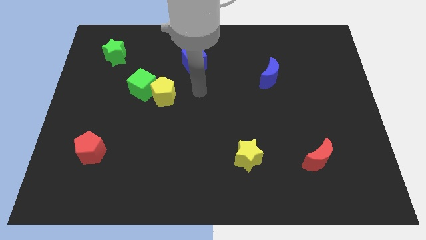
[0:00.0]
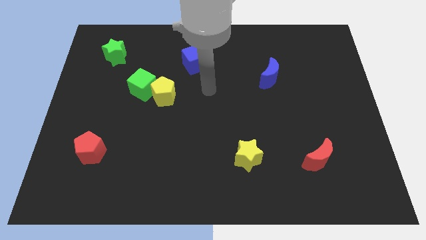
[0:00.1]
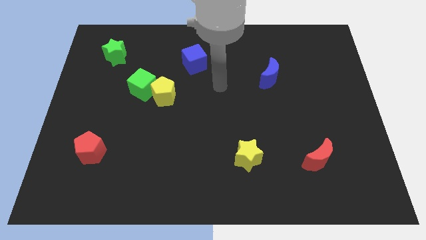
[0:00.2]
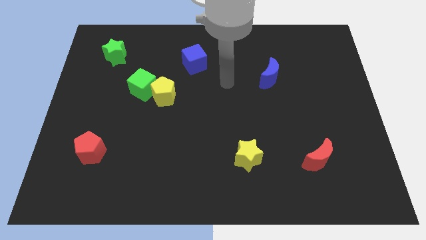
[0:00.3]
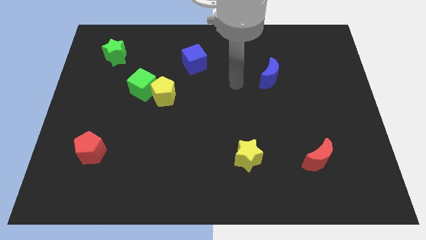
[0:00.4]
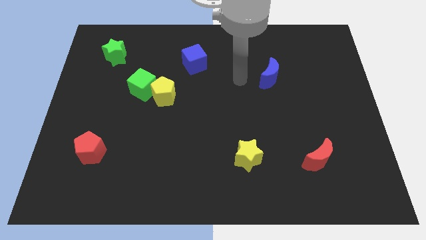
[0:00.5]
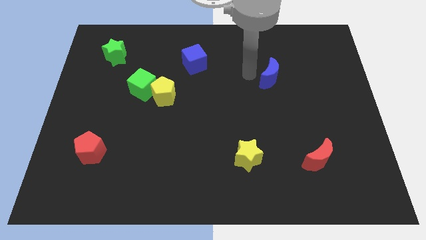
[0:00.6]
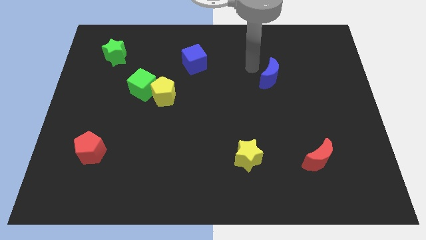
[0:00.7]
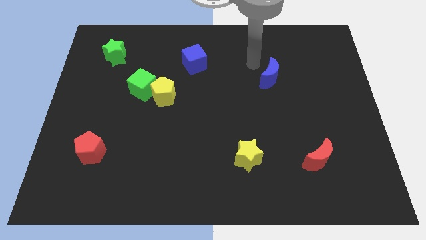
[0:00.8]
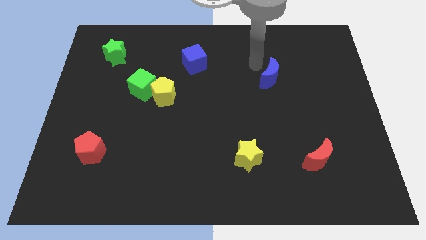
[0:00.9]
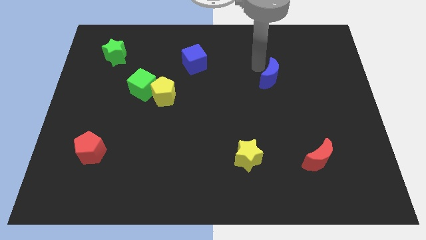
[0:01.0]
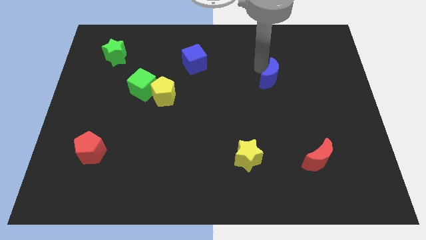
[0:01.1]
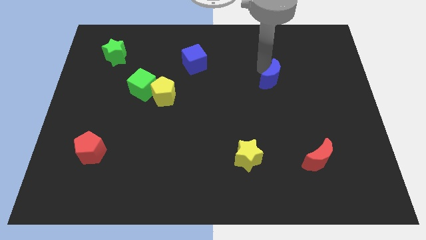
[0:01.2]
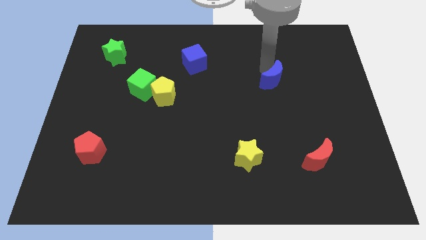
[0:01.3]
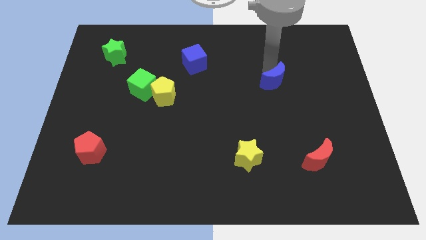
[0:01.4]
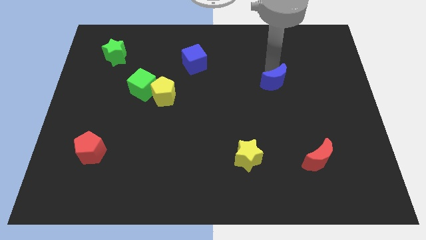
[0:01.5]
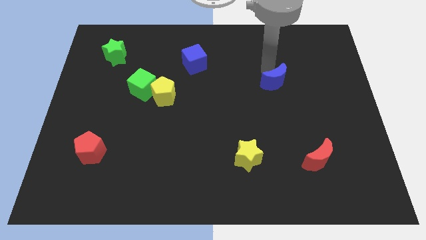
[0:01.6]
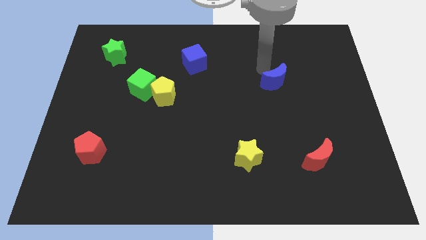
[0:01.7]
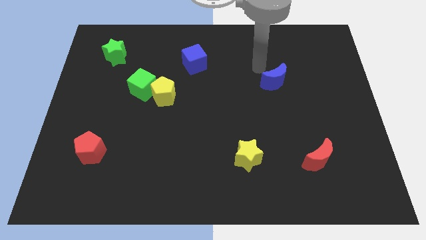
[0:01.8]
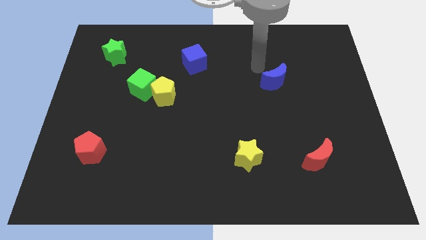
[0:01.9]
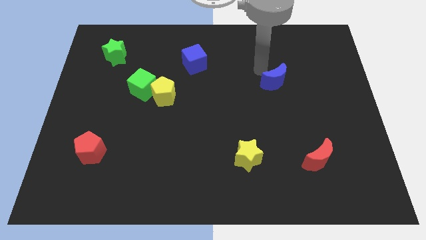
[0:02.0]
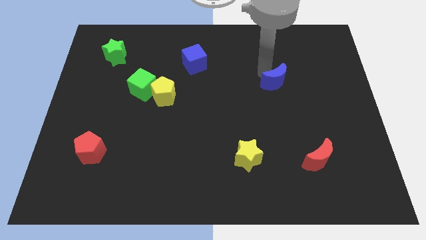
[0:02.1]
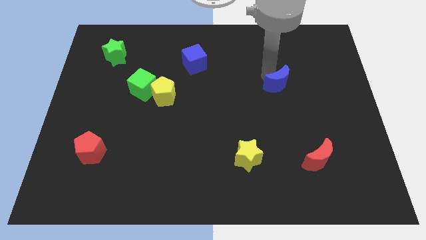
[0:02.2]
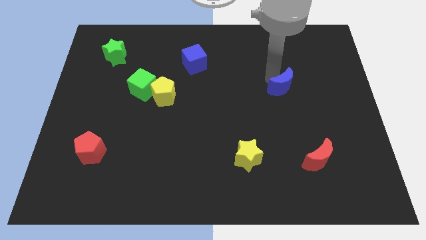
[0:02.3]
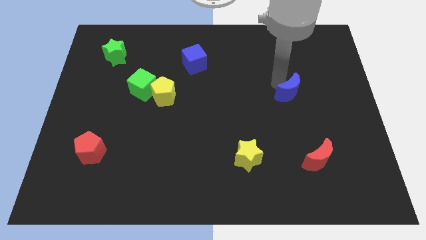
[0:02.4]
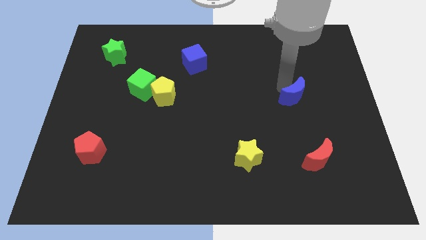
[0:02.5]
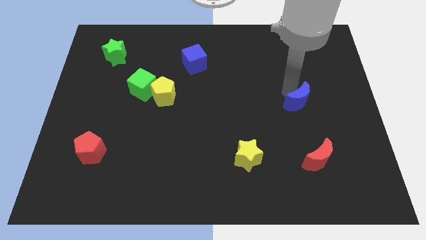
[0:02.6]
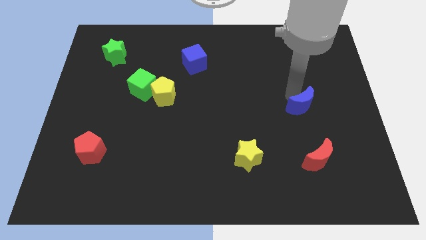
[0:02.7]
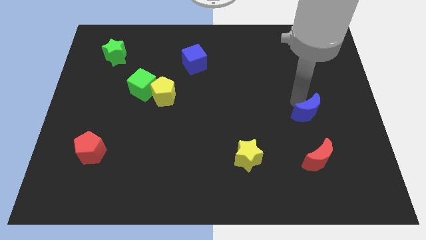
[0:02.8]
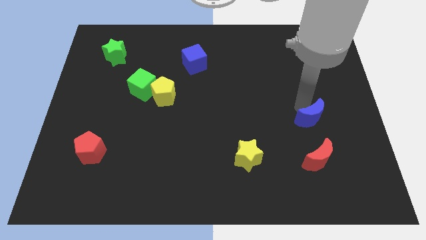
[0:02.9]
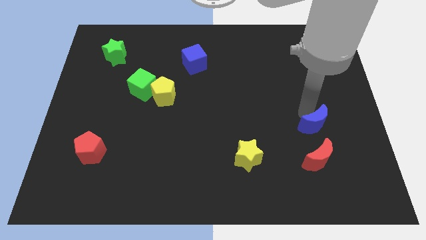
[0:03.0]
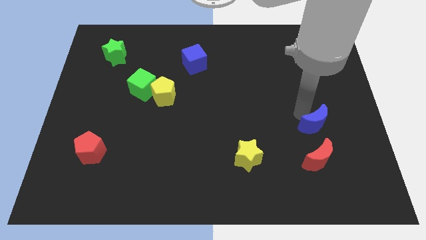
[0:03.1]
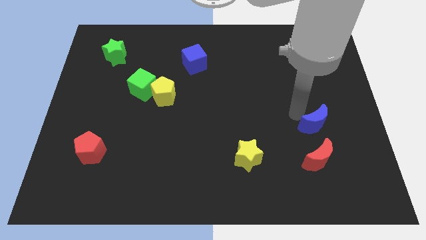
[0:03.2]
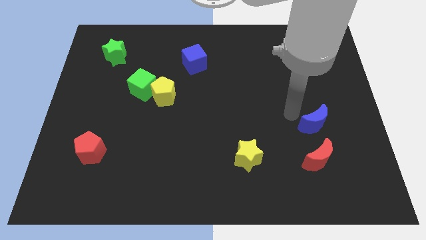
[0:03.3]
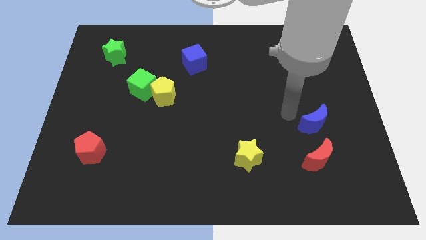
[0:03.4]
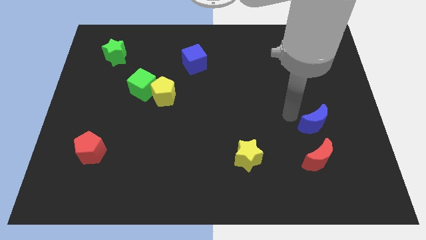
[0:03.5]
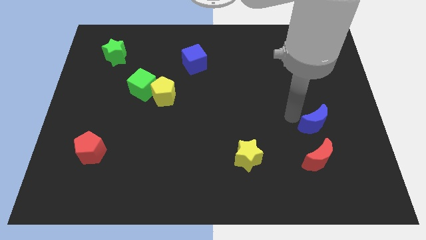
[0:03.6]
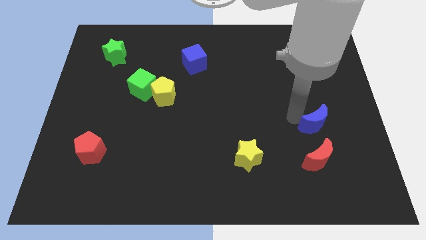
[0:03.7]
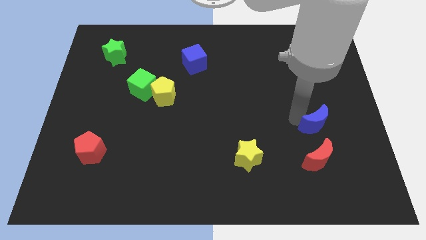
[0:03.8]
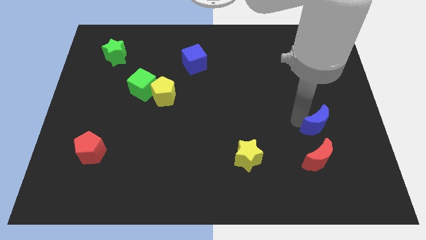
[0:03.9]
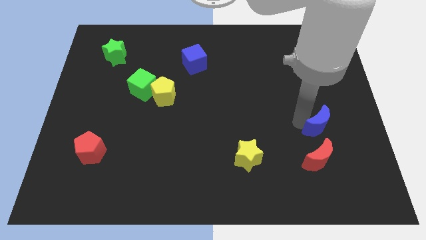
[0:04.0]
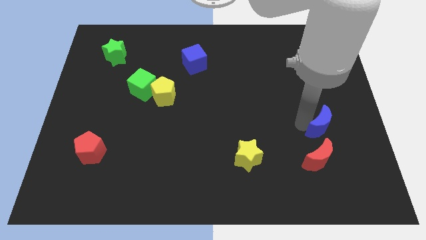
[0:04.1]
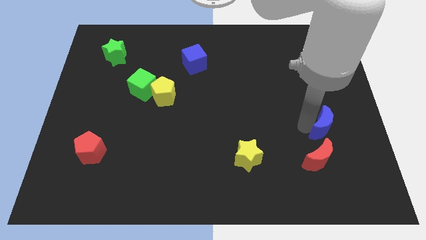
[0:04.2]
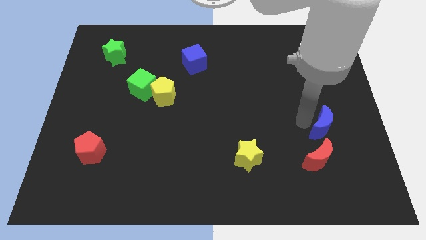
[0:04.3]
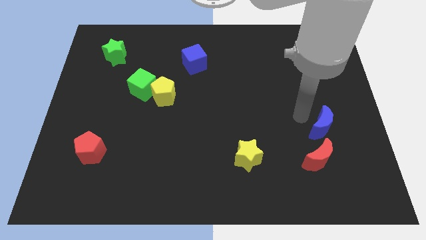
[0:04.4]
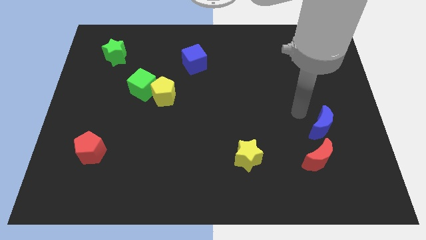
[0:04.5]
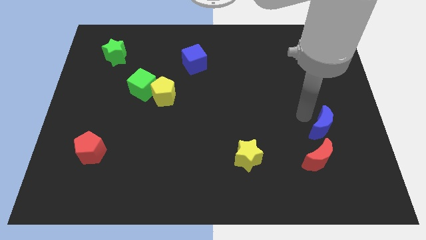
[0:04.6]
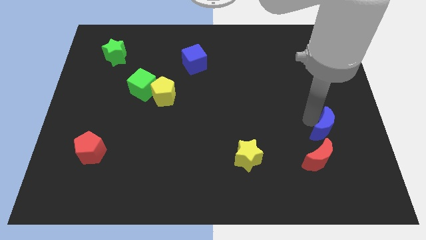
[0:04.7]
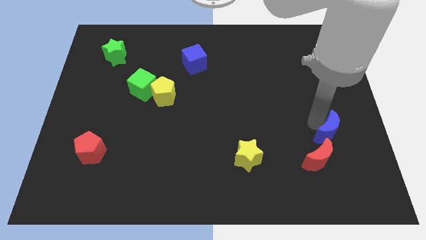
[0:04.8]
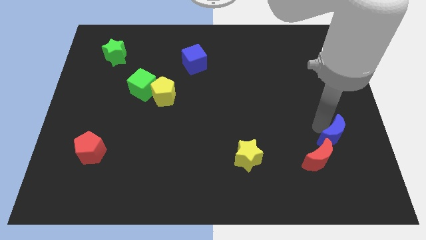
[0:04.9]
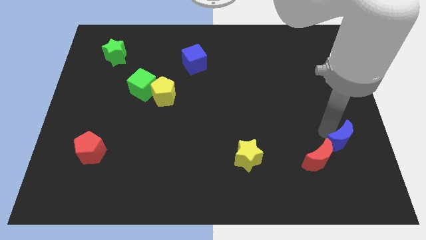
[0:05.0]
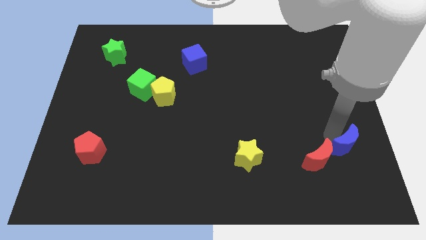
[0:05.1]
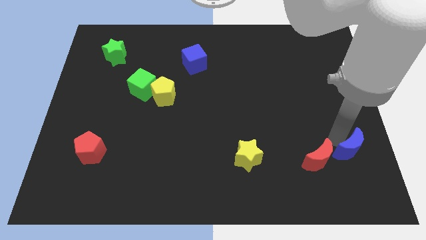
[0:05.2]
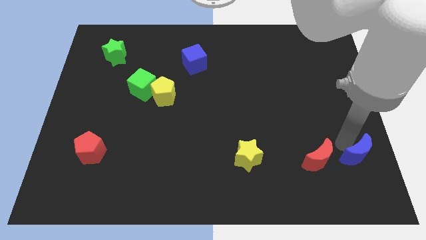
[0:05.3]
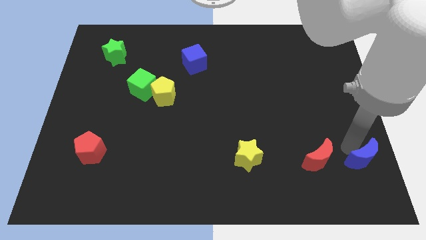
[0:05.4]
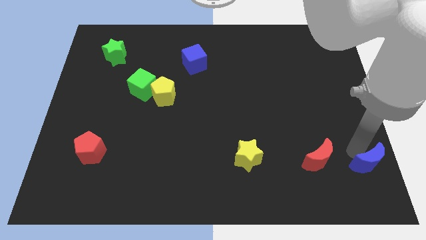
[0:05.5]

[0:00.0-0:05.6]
push the blue moon to the bottom right of the board
